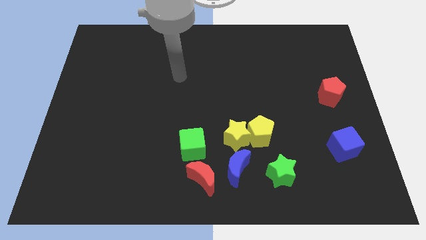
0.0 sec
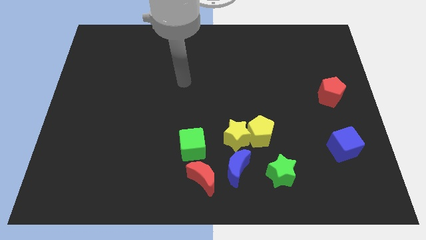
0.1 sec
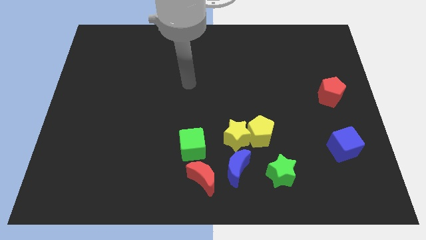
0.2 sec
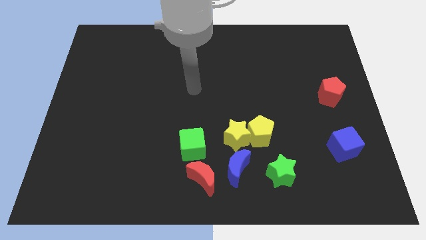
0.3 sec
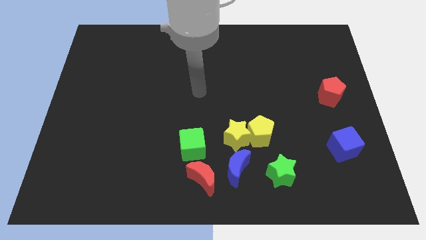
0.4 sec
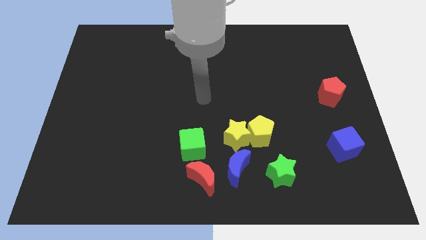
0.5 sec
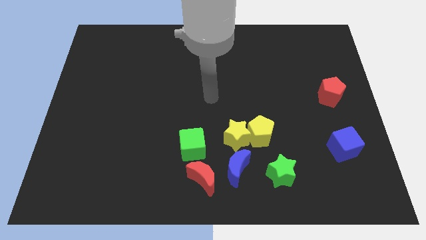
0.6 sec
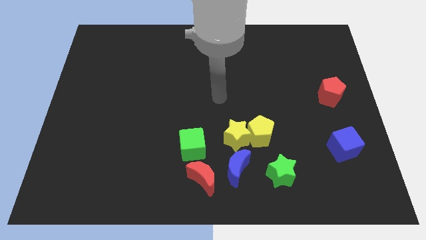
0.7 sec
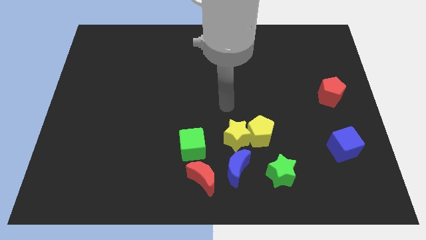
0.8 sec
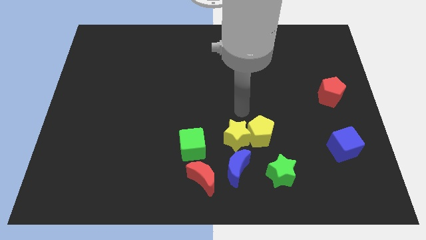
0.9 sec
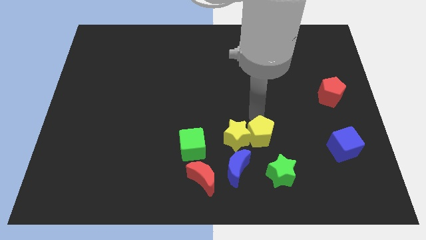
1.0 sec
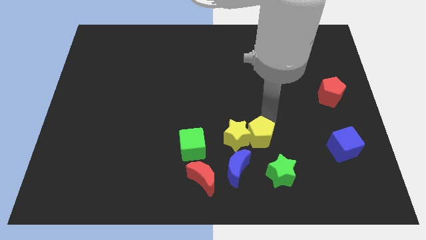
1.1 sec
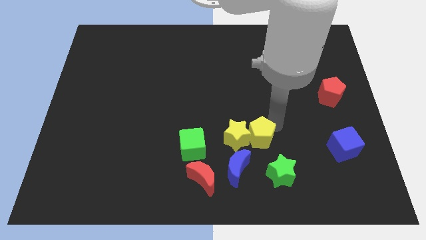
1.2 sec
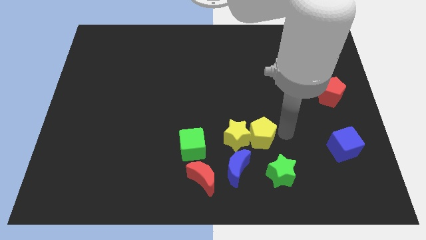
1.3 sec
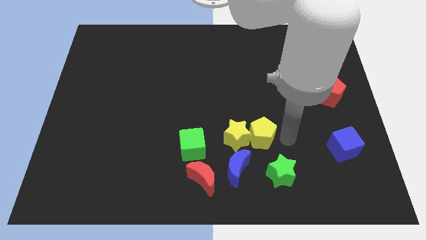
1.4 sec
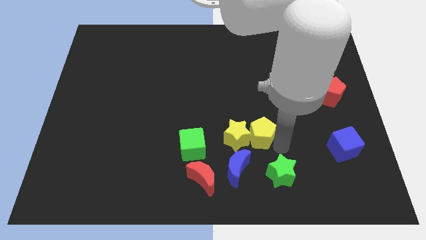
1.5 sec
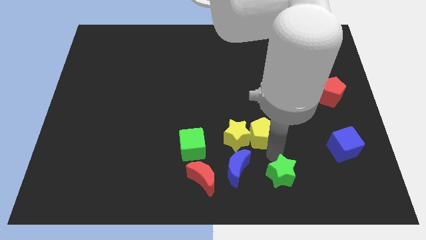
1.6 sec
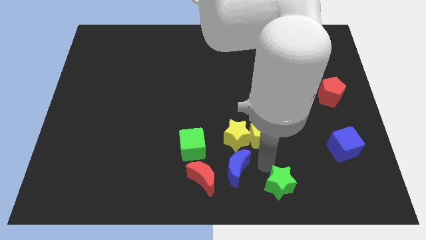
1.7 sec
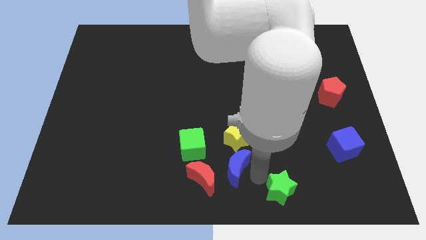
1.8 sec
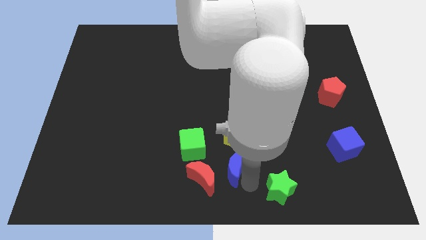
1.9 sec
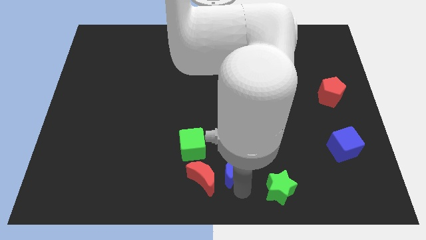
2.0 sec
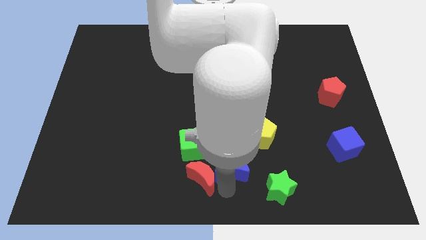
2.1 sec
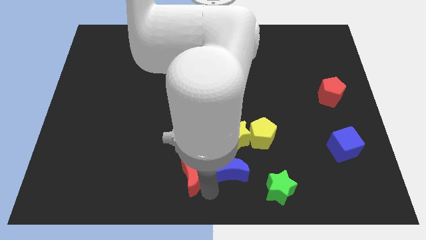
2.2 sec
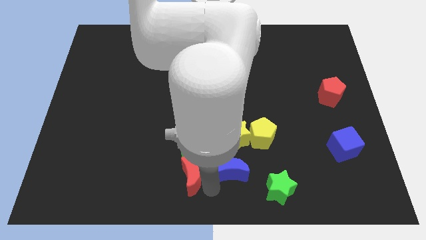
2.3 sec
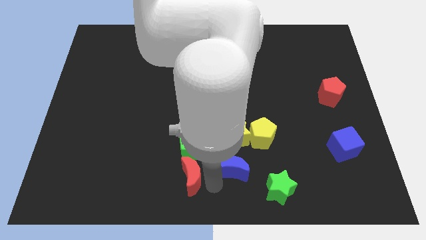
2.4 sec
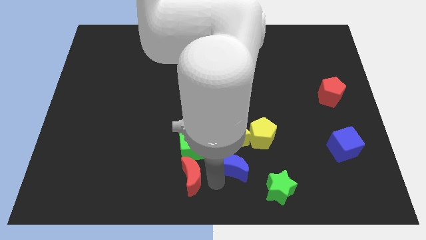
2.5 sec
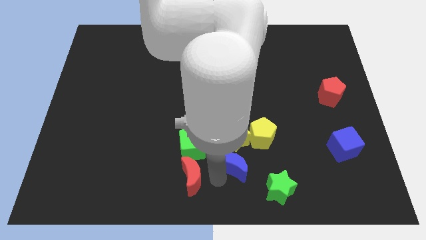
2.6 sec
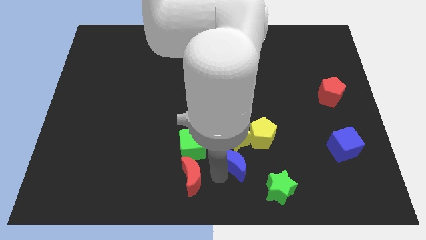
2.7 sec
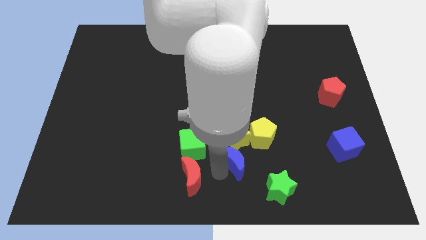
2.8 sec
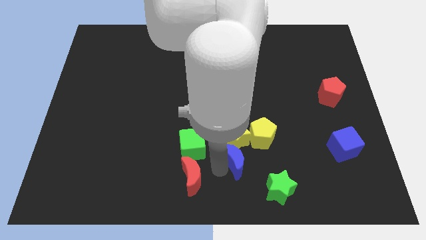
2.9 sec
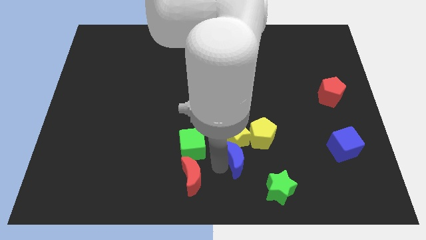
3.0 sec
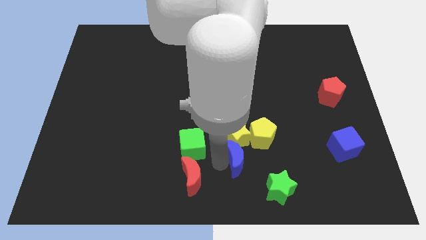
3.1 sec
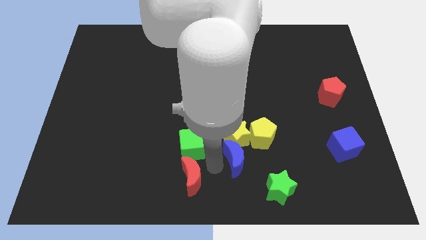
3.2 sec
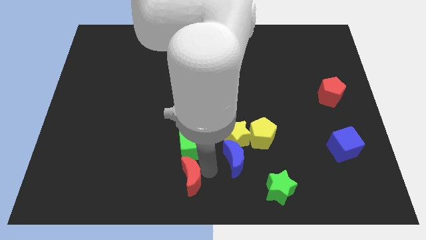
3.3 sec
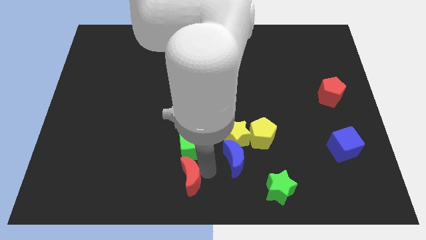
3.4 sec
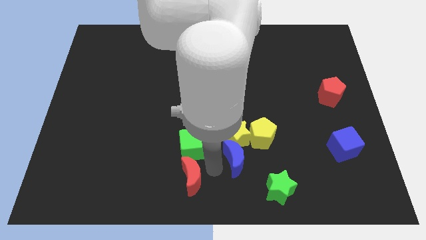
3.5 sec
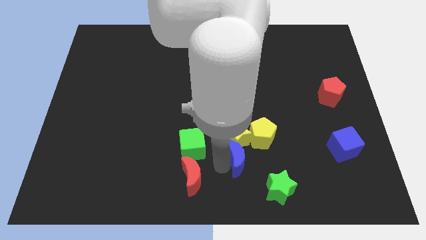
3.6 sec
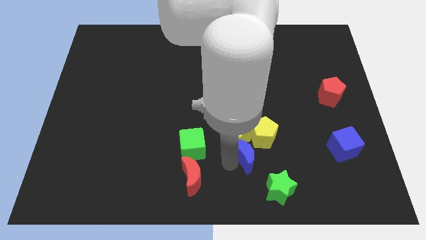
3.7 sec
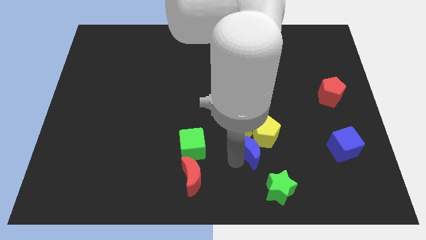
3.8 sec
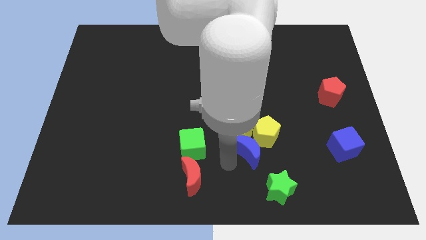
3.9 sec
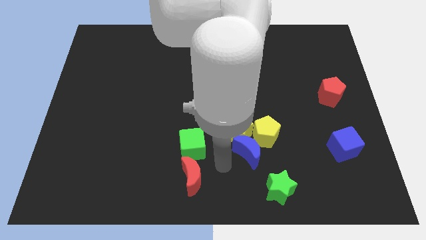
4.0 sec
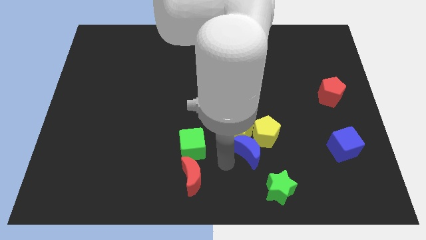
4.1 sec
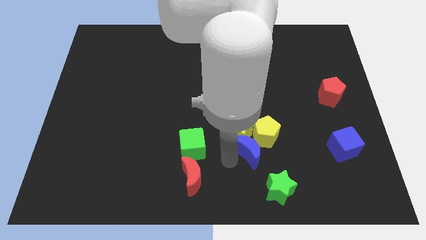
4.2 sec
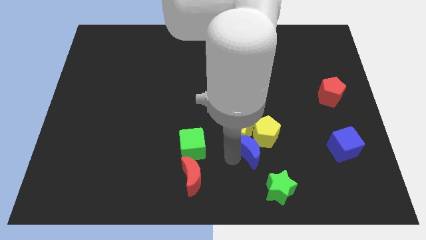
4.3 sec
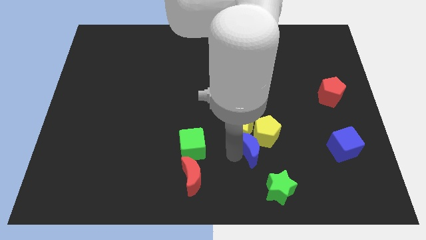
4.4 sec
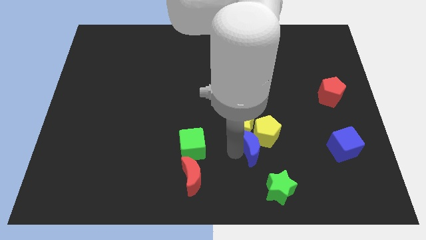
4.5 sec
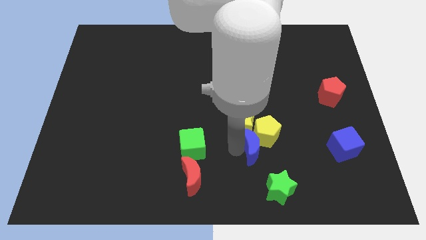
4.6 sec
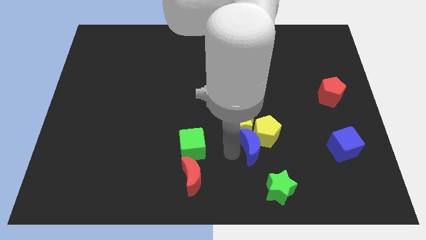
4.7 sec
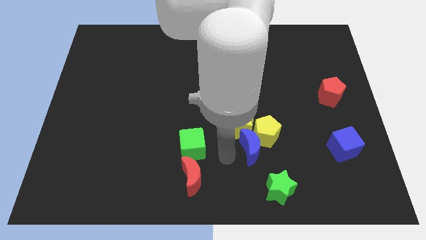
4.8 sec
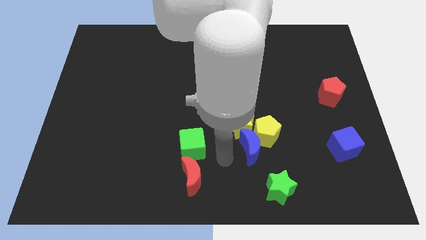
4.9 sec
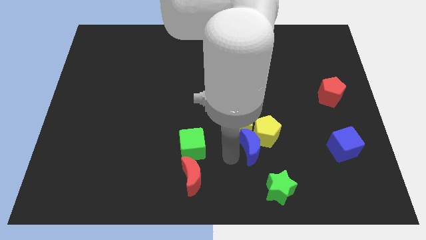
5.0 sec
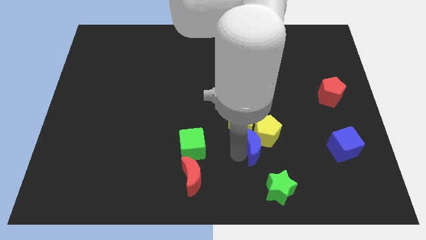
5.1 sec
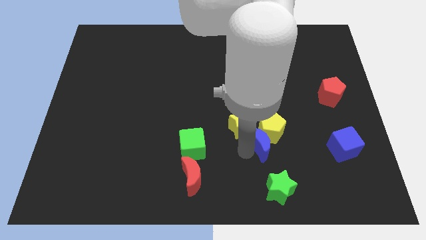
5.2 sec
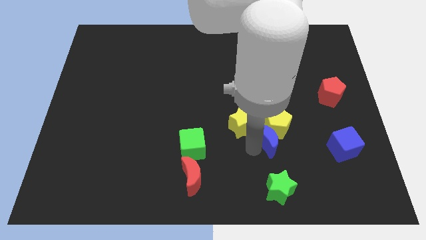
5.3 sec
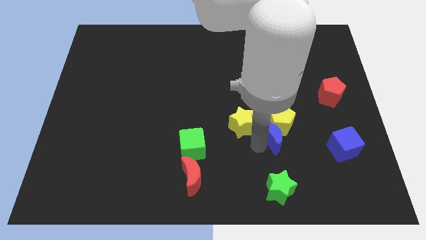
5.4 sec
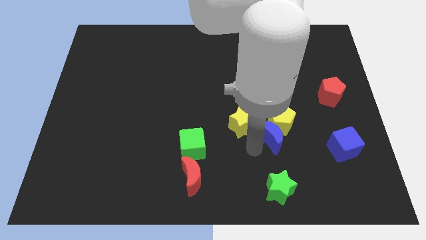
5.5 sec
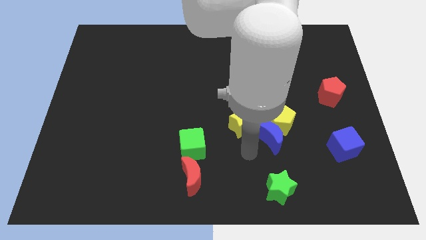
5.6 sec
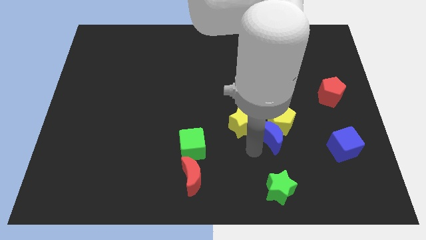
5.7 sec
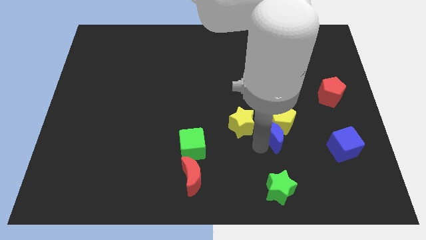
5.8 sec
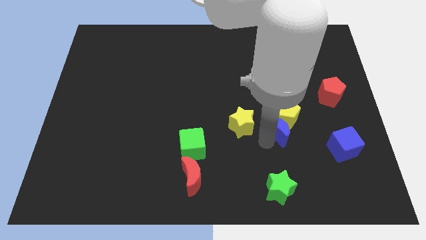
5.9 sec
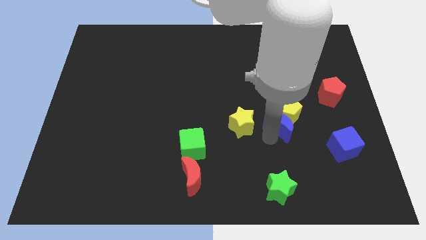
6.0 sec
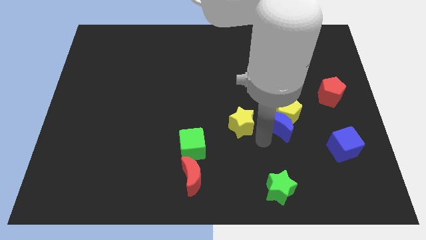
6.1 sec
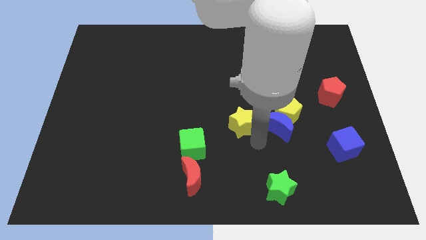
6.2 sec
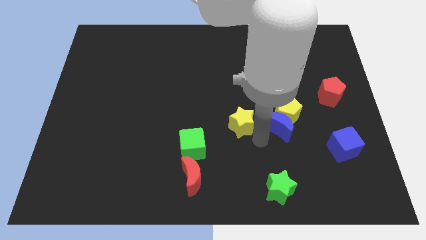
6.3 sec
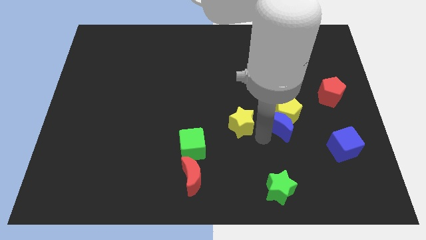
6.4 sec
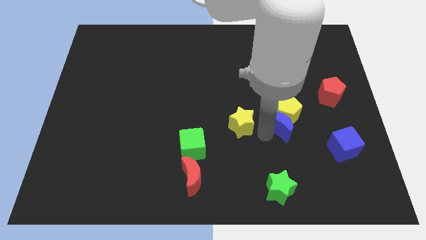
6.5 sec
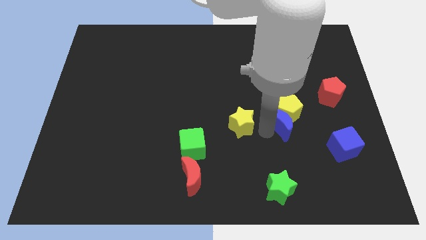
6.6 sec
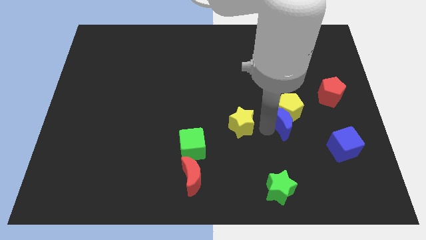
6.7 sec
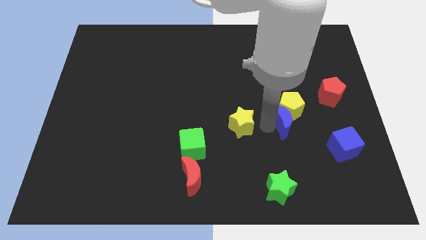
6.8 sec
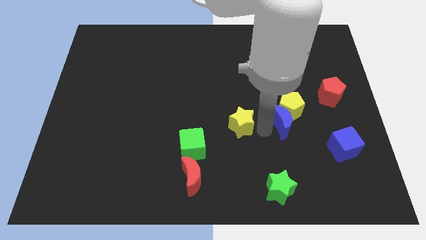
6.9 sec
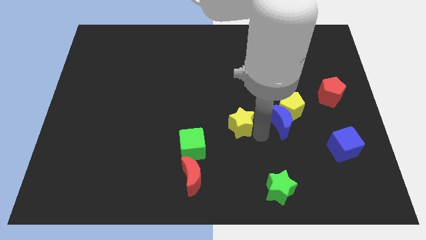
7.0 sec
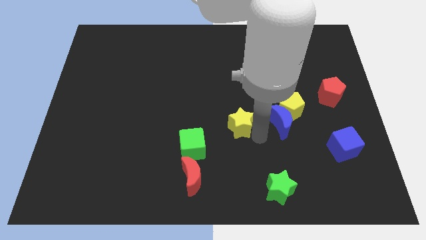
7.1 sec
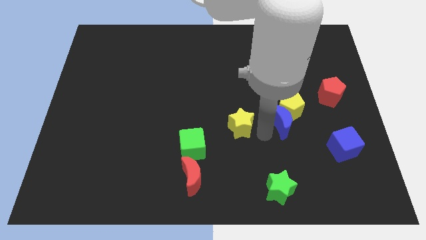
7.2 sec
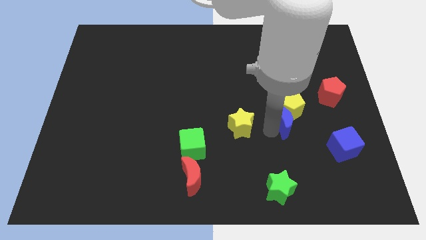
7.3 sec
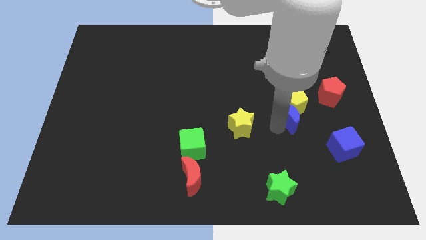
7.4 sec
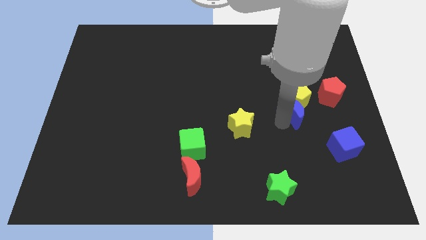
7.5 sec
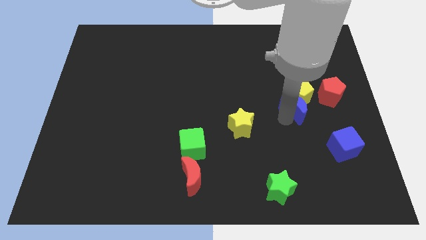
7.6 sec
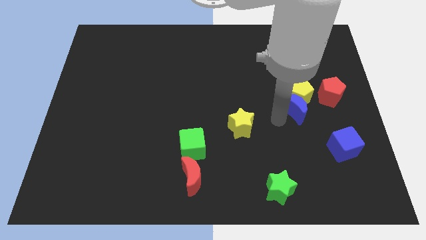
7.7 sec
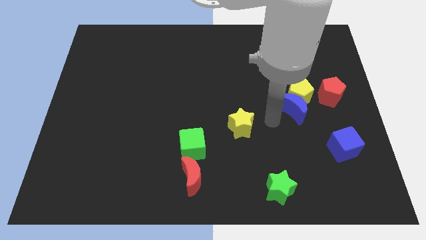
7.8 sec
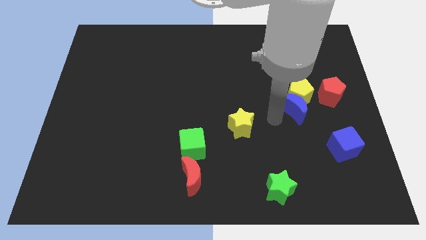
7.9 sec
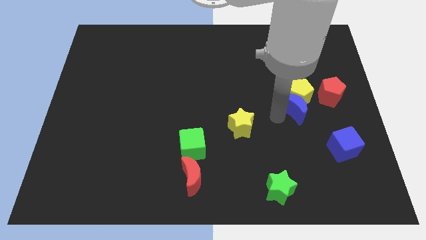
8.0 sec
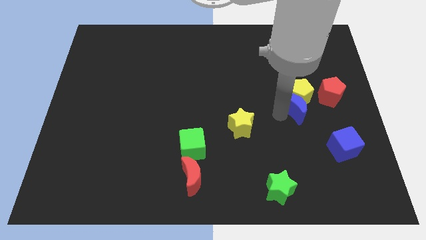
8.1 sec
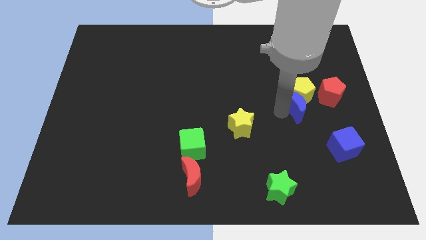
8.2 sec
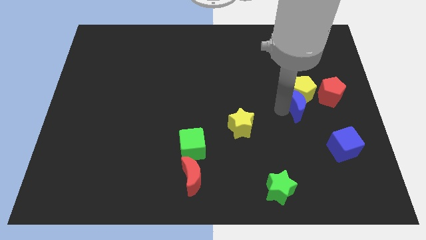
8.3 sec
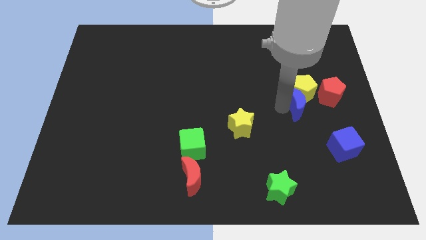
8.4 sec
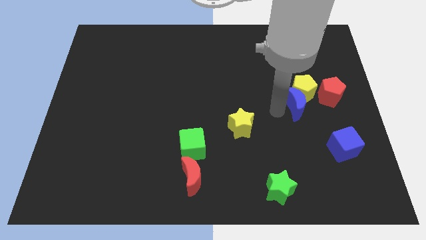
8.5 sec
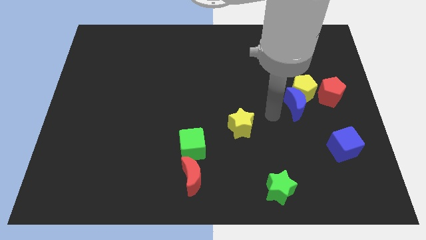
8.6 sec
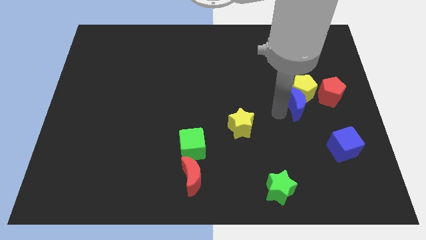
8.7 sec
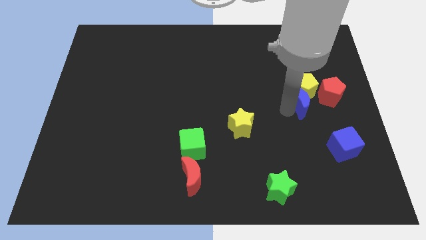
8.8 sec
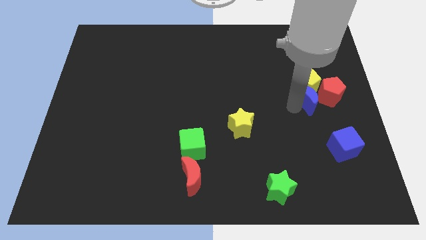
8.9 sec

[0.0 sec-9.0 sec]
push the blue moon next to the red pentagon
